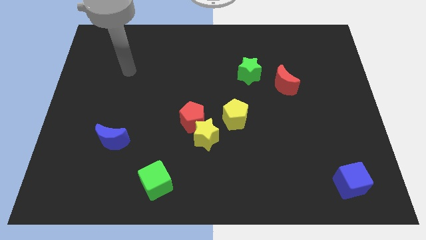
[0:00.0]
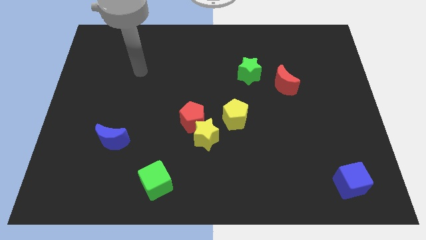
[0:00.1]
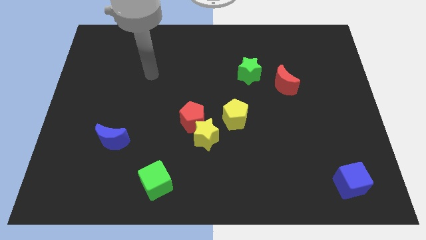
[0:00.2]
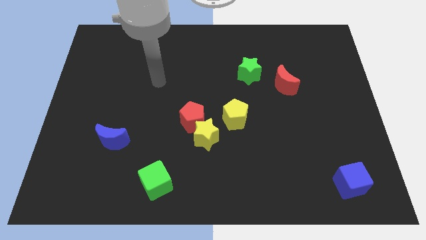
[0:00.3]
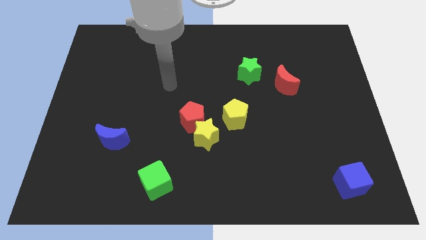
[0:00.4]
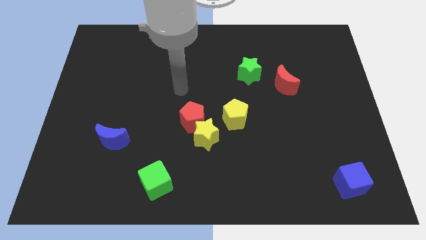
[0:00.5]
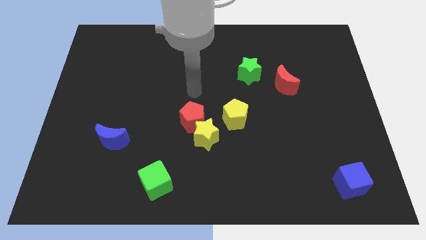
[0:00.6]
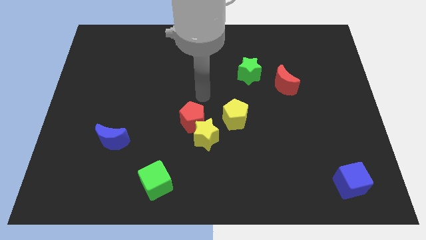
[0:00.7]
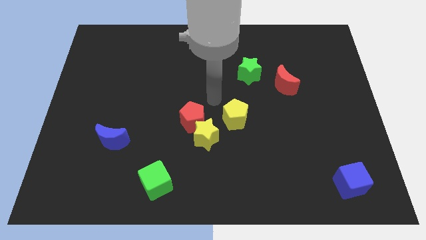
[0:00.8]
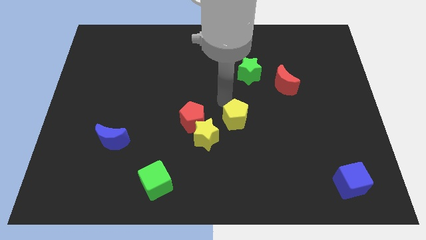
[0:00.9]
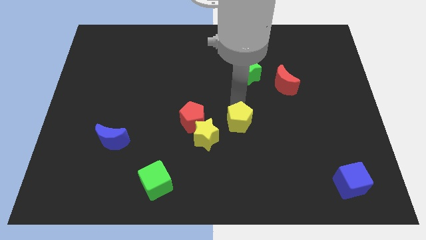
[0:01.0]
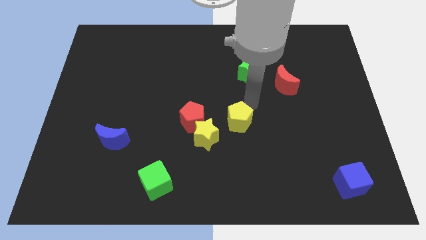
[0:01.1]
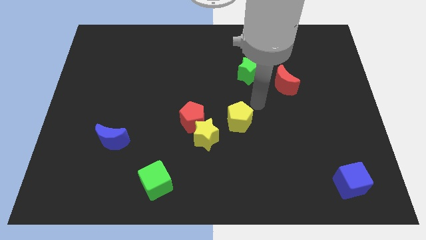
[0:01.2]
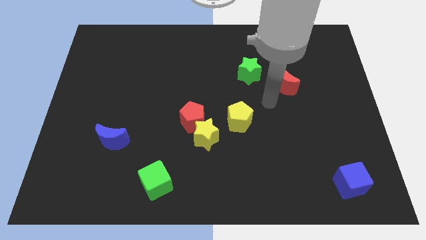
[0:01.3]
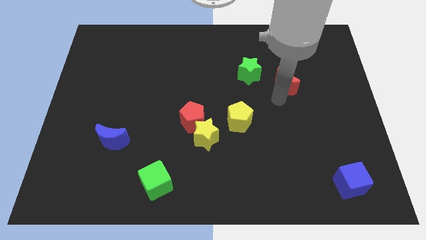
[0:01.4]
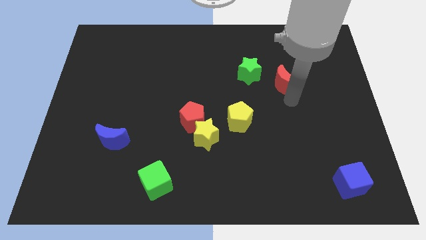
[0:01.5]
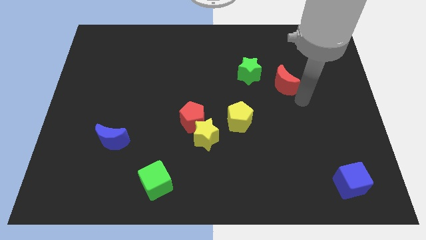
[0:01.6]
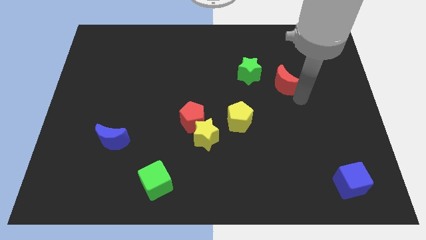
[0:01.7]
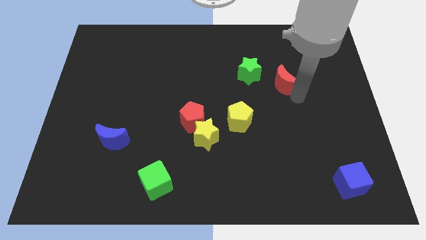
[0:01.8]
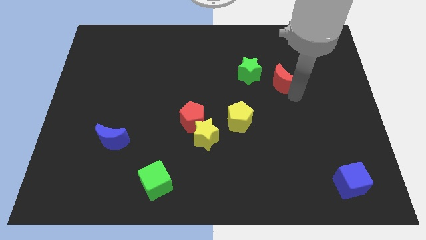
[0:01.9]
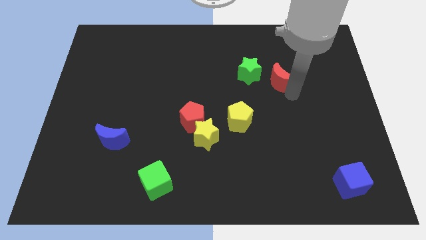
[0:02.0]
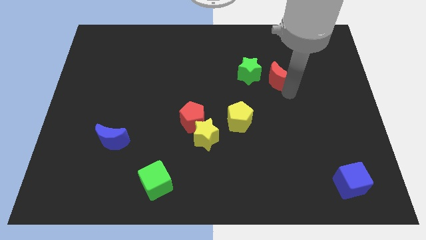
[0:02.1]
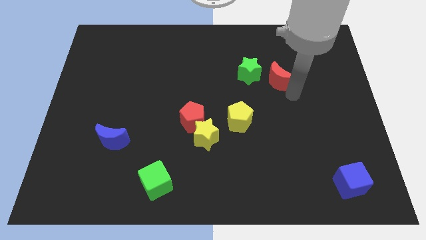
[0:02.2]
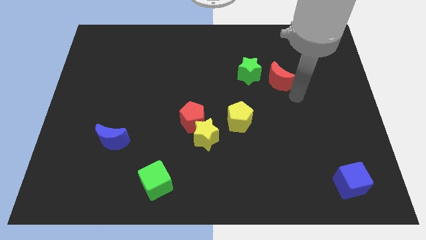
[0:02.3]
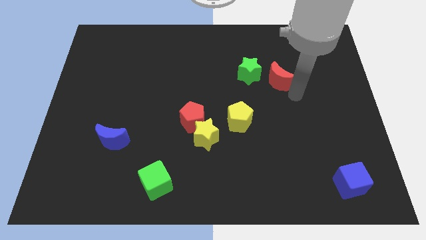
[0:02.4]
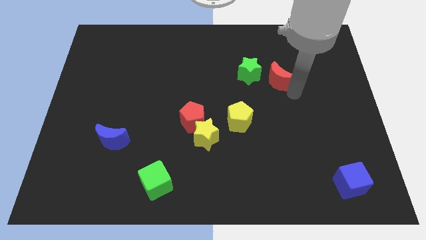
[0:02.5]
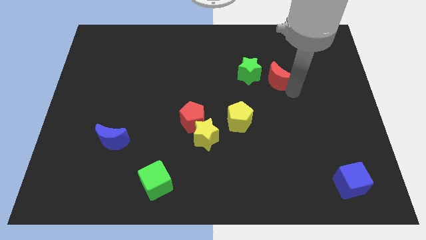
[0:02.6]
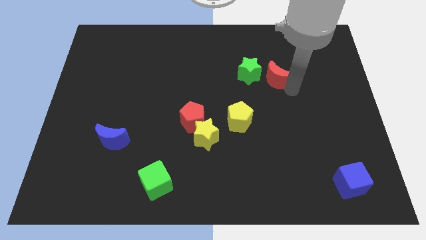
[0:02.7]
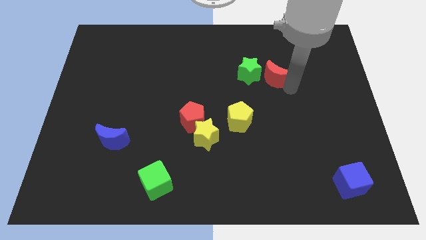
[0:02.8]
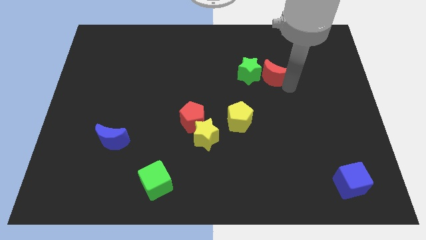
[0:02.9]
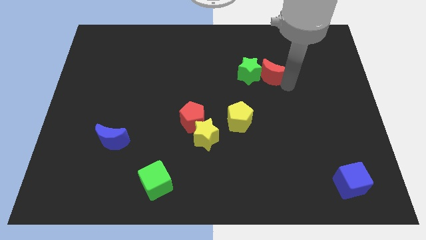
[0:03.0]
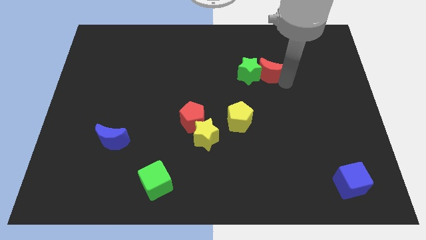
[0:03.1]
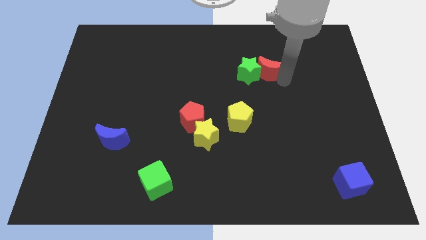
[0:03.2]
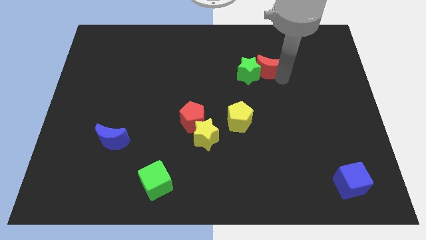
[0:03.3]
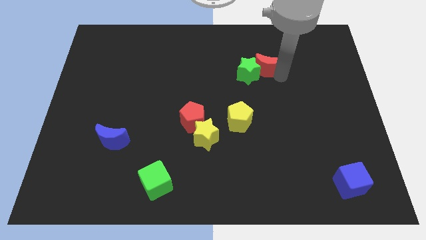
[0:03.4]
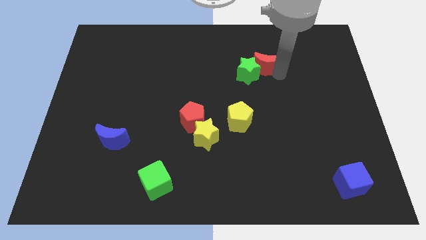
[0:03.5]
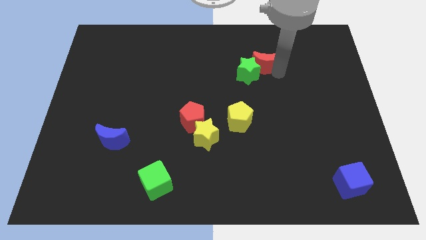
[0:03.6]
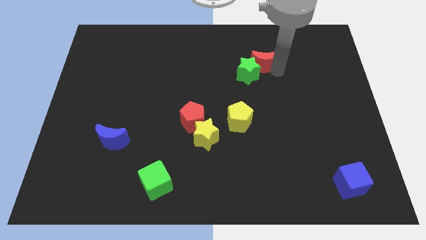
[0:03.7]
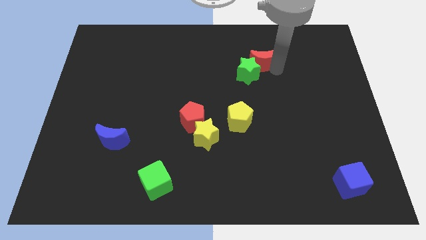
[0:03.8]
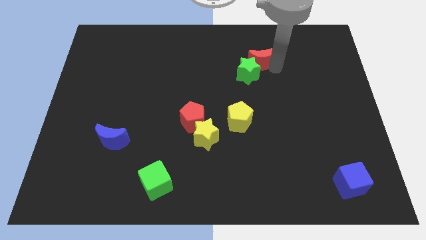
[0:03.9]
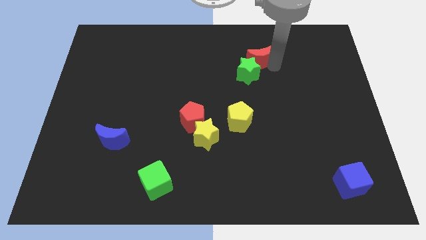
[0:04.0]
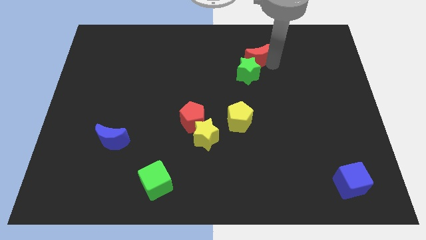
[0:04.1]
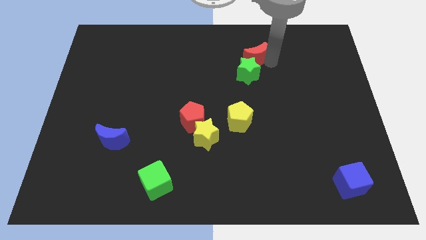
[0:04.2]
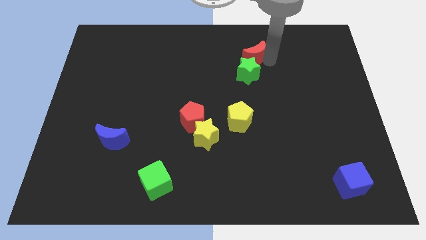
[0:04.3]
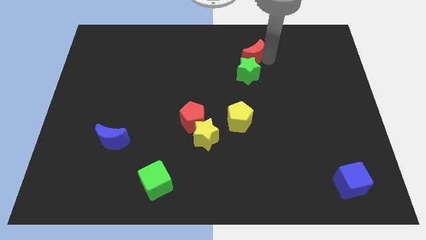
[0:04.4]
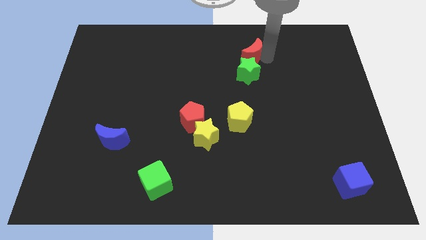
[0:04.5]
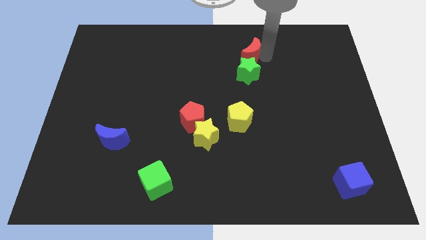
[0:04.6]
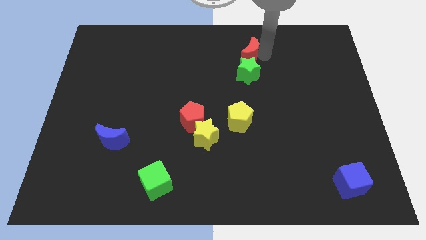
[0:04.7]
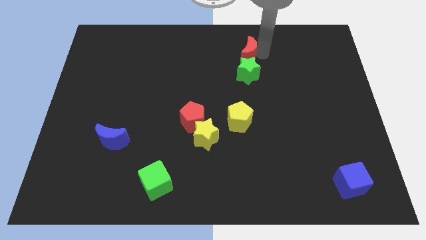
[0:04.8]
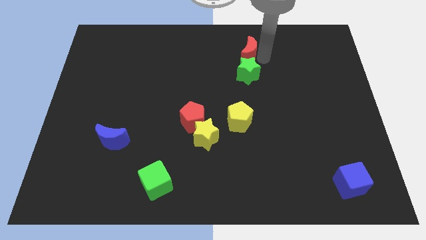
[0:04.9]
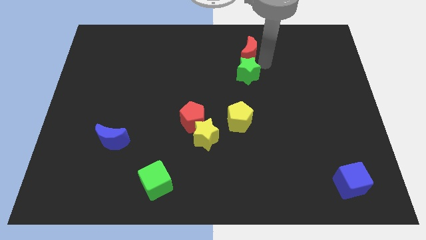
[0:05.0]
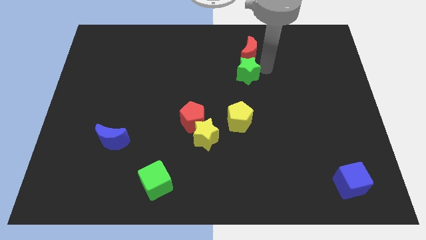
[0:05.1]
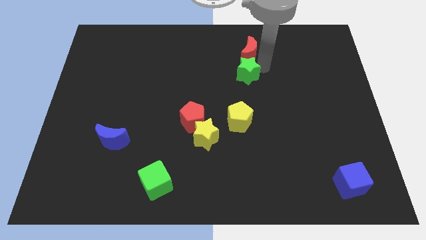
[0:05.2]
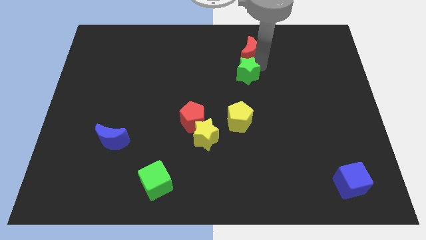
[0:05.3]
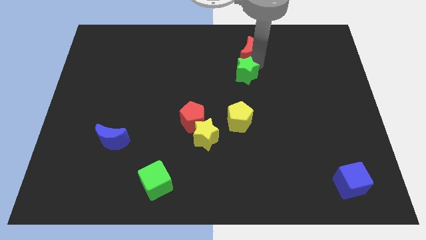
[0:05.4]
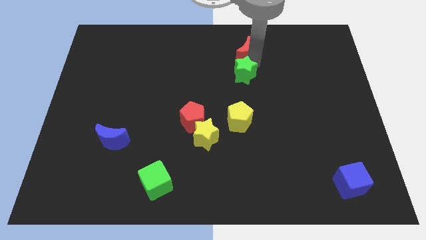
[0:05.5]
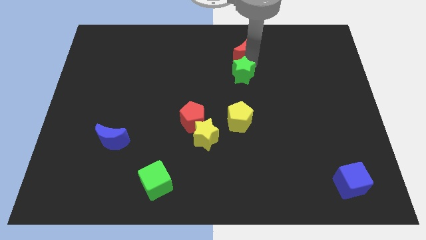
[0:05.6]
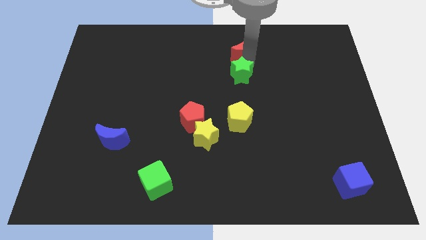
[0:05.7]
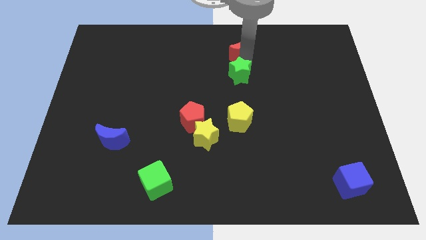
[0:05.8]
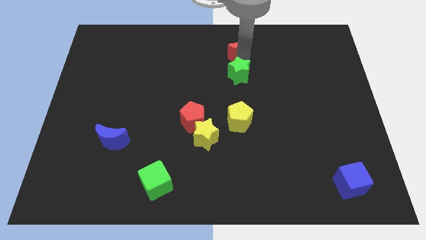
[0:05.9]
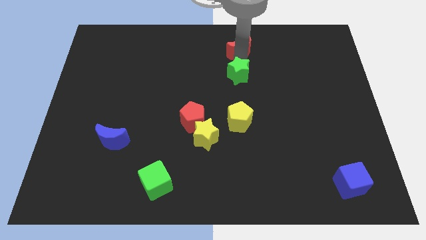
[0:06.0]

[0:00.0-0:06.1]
put the red moon to the top side
